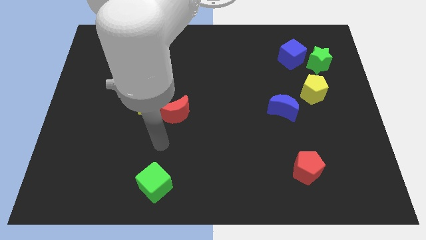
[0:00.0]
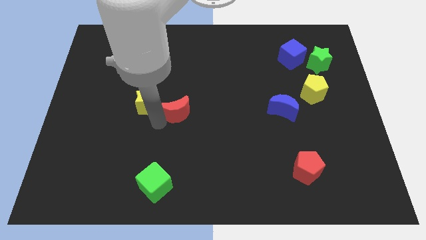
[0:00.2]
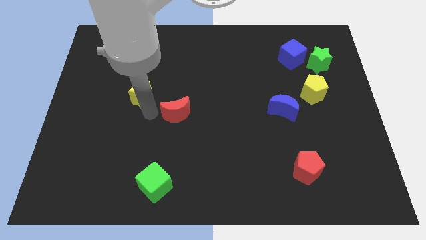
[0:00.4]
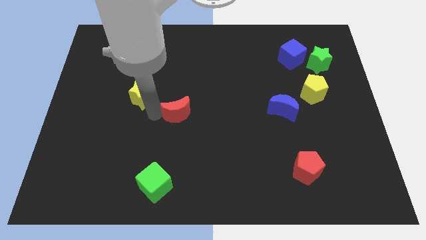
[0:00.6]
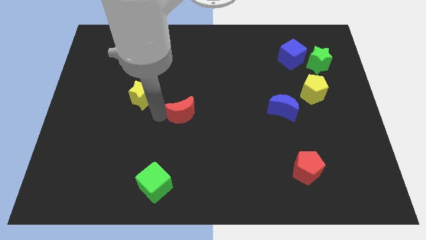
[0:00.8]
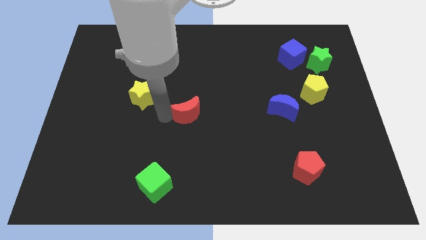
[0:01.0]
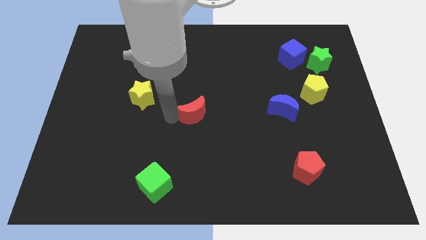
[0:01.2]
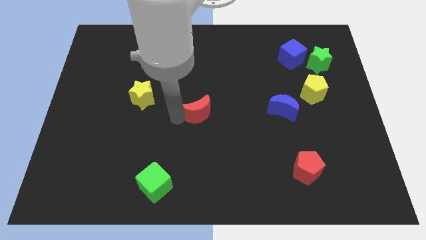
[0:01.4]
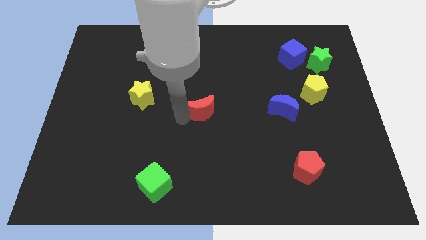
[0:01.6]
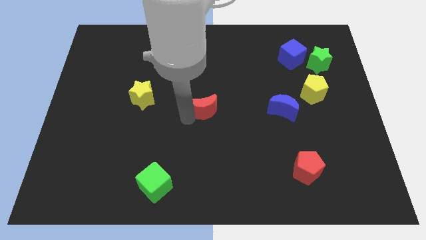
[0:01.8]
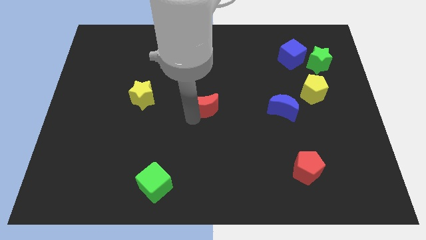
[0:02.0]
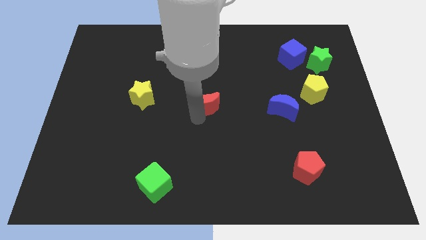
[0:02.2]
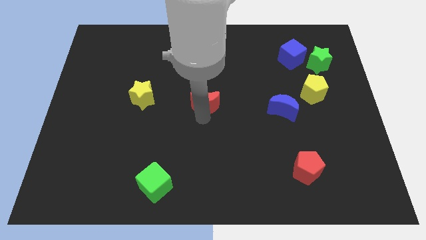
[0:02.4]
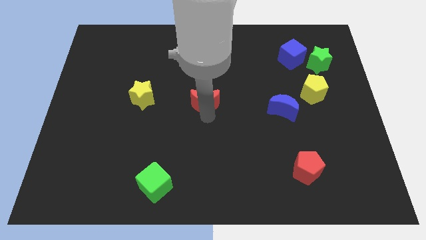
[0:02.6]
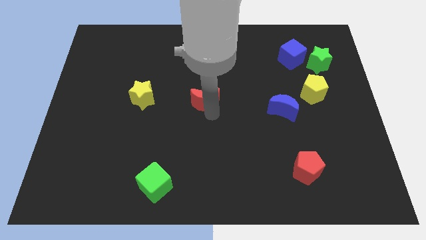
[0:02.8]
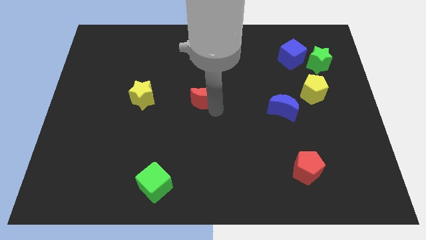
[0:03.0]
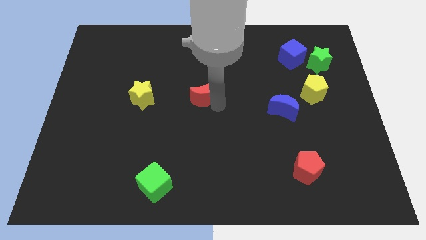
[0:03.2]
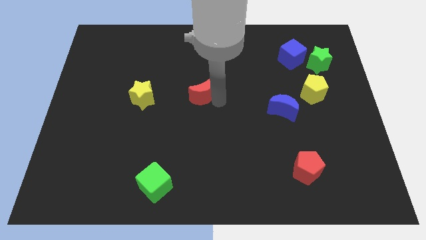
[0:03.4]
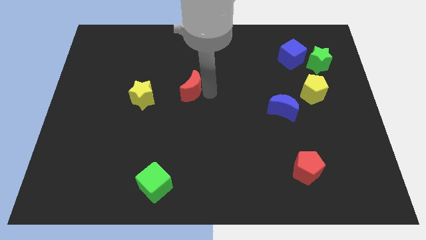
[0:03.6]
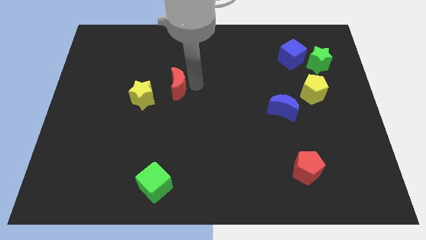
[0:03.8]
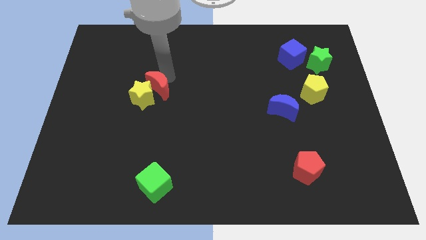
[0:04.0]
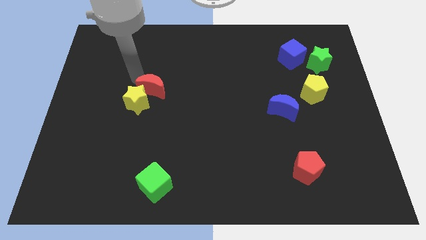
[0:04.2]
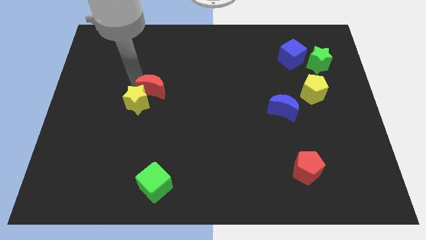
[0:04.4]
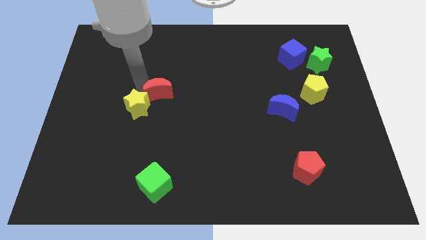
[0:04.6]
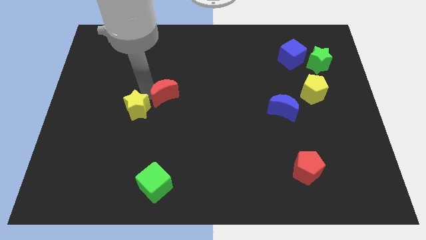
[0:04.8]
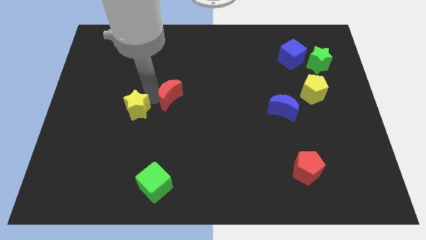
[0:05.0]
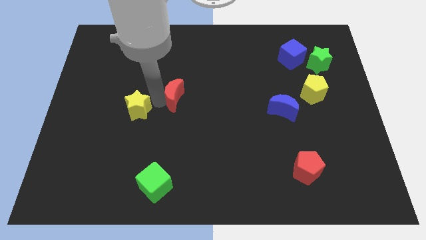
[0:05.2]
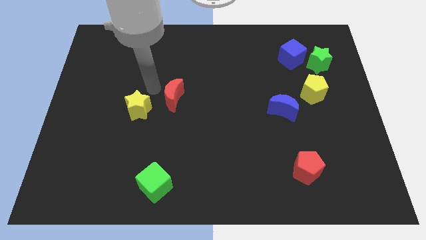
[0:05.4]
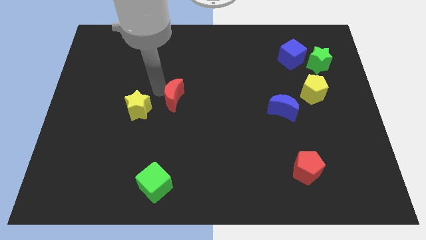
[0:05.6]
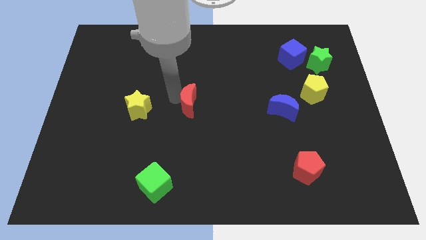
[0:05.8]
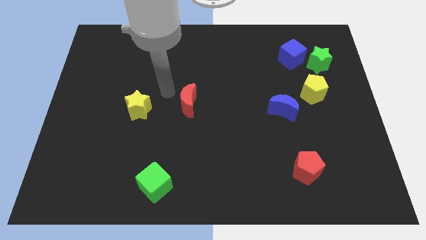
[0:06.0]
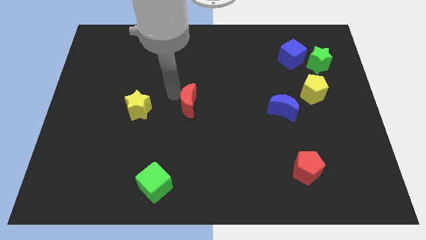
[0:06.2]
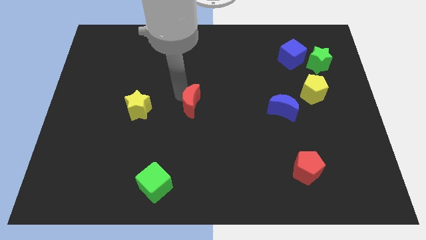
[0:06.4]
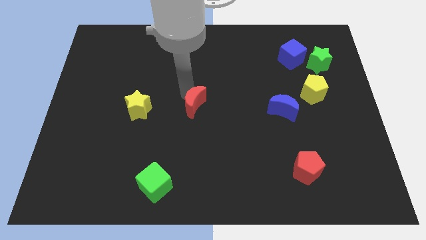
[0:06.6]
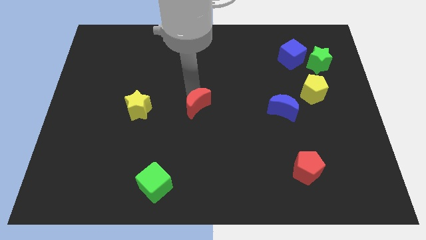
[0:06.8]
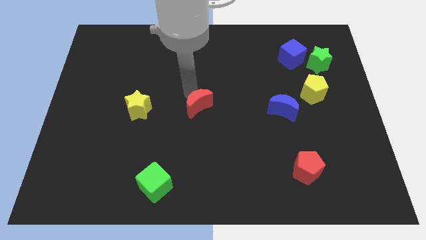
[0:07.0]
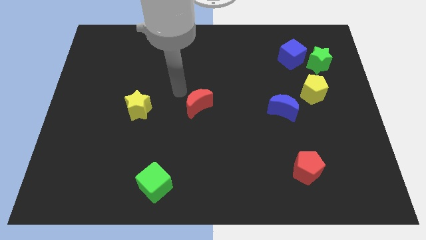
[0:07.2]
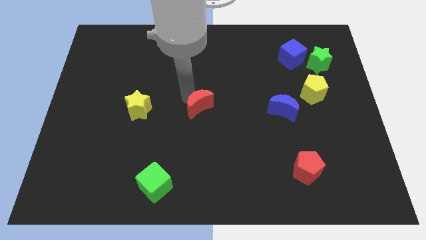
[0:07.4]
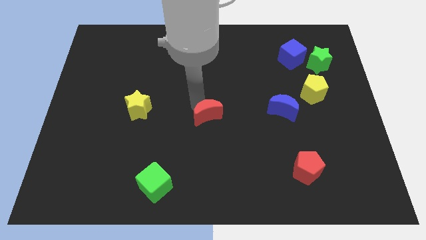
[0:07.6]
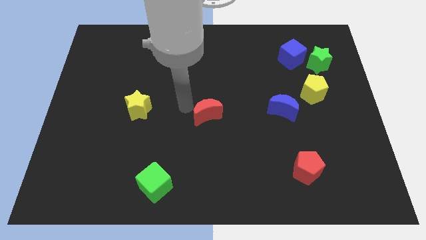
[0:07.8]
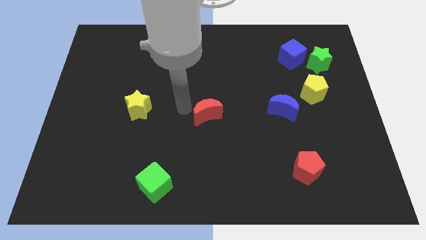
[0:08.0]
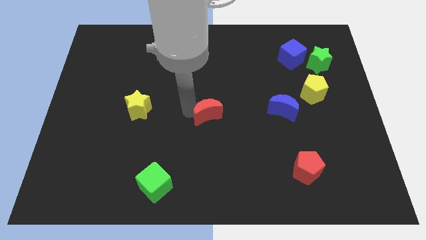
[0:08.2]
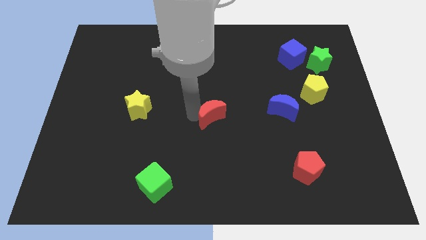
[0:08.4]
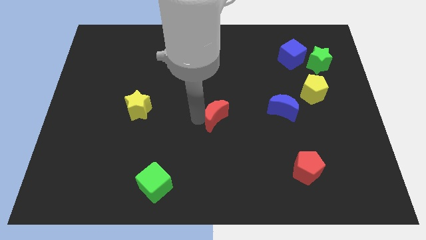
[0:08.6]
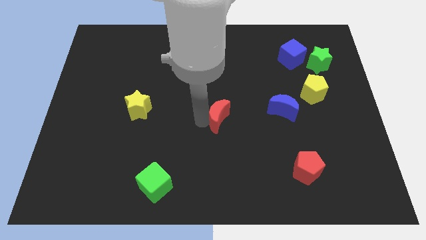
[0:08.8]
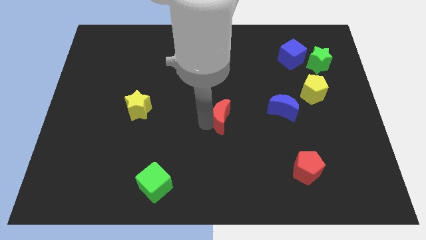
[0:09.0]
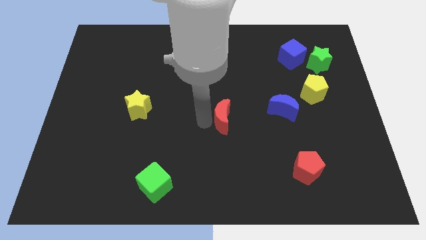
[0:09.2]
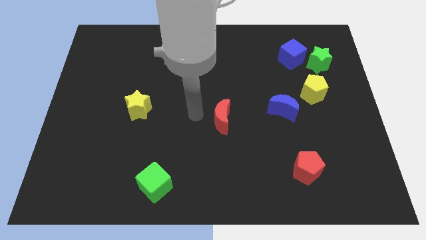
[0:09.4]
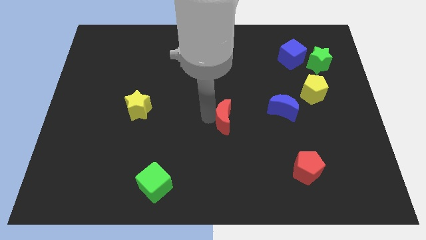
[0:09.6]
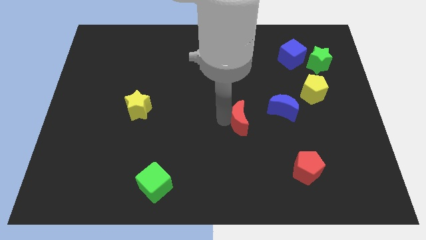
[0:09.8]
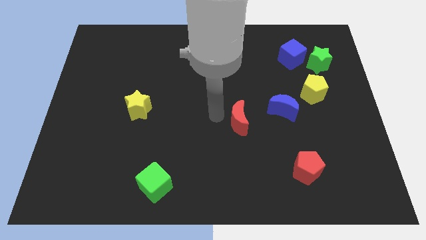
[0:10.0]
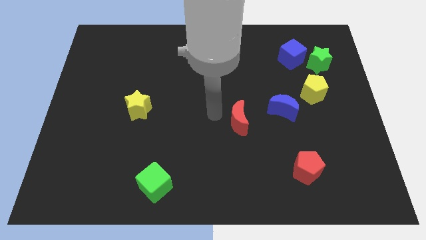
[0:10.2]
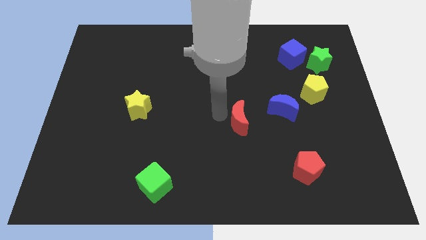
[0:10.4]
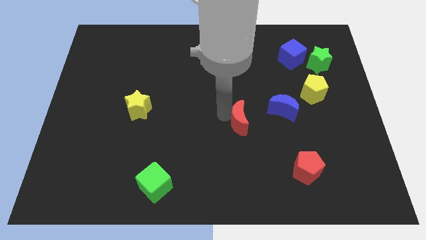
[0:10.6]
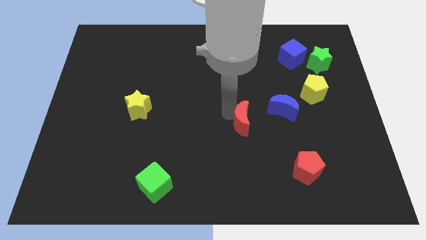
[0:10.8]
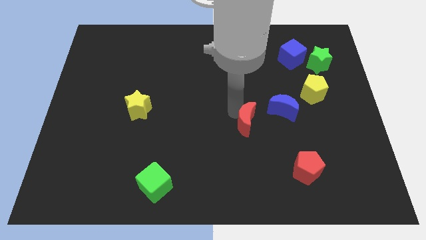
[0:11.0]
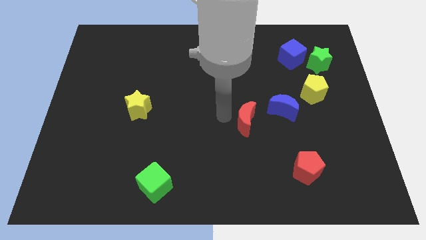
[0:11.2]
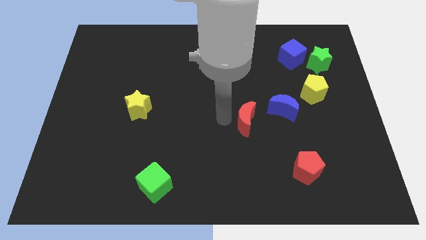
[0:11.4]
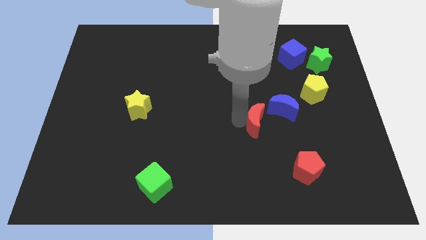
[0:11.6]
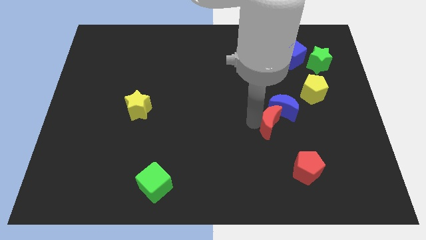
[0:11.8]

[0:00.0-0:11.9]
push the red moon right

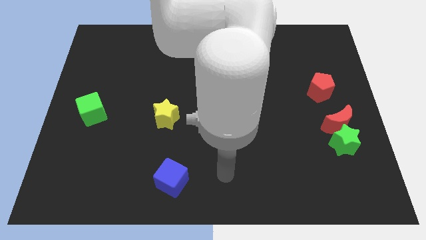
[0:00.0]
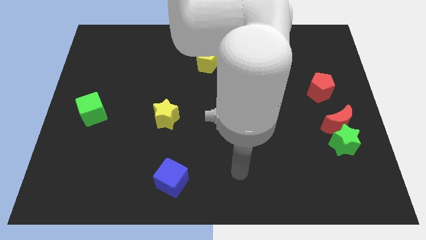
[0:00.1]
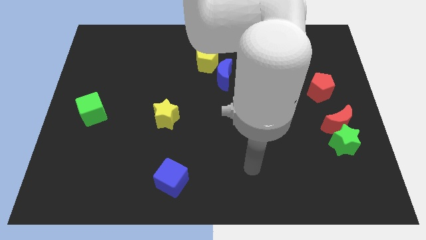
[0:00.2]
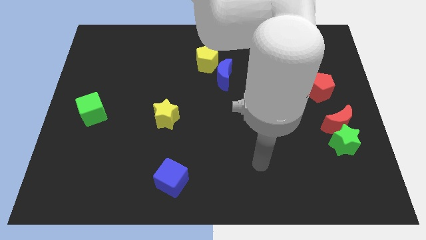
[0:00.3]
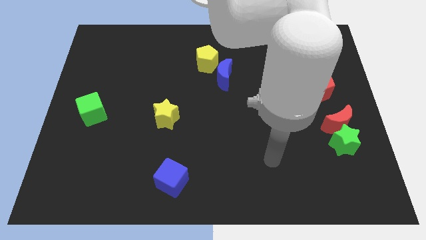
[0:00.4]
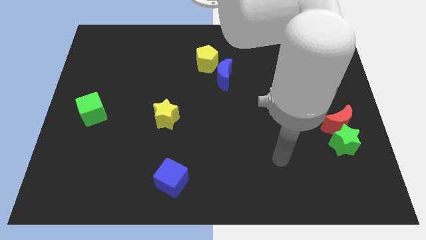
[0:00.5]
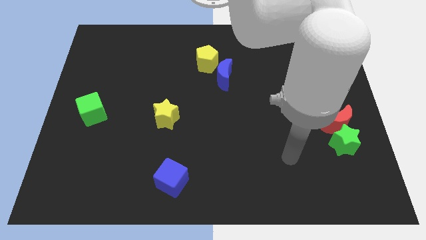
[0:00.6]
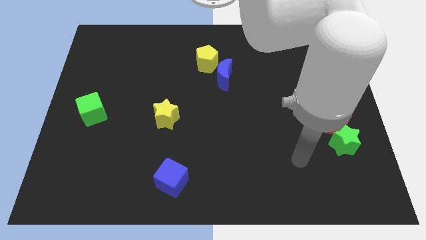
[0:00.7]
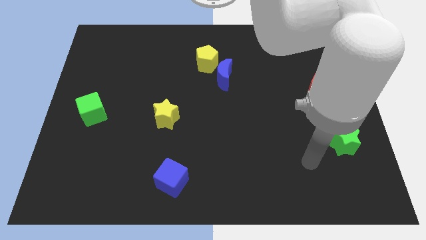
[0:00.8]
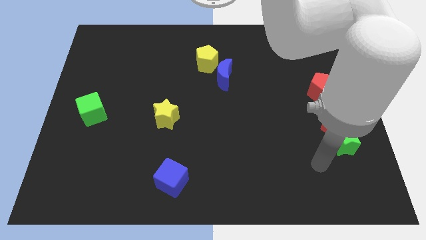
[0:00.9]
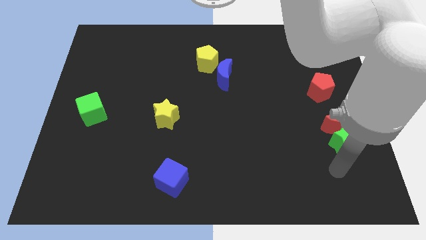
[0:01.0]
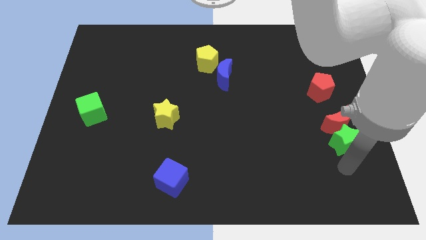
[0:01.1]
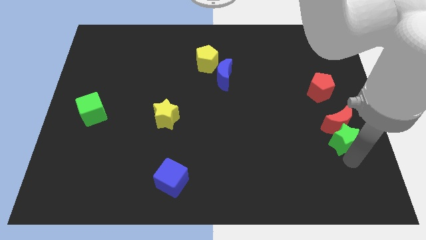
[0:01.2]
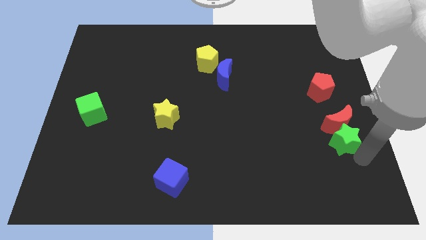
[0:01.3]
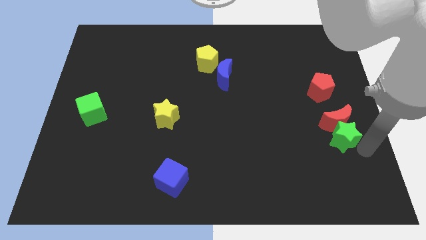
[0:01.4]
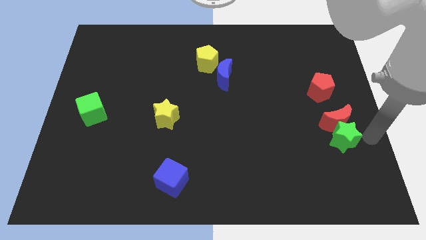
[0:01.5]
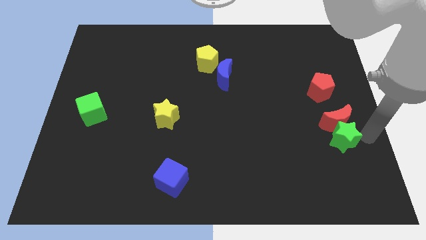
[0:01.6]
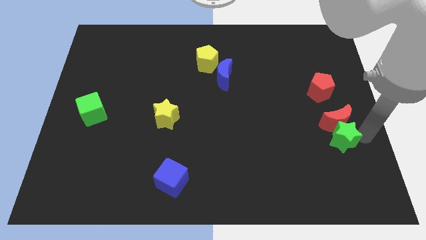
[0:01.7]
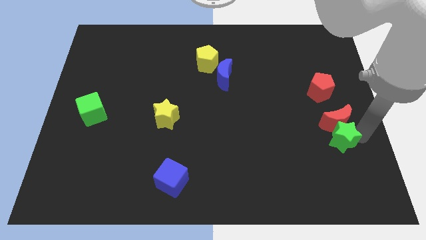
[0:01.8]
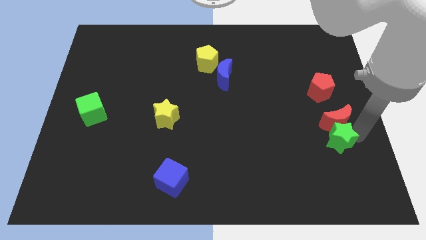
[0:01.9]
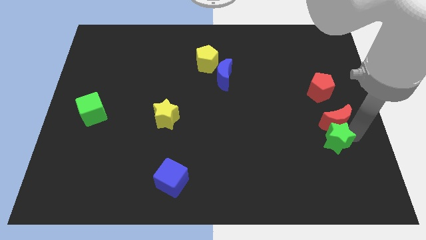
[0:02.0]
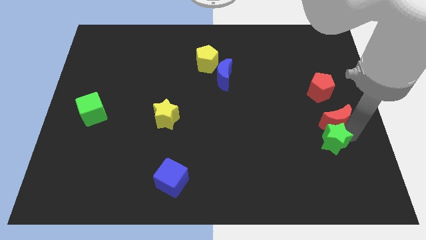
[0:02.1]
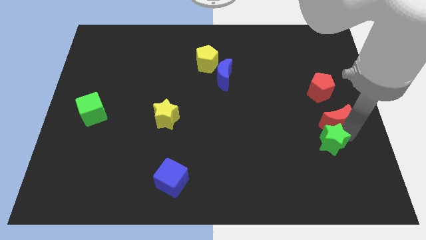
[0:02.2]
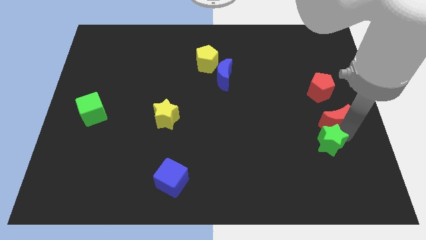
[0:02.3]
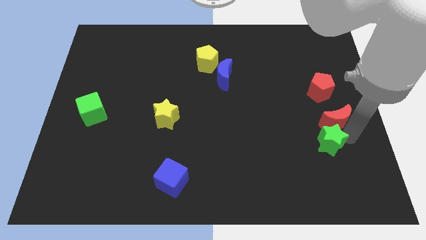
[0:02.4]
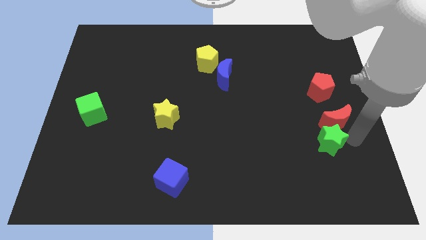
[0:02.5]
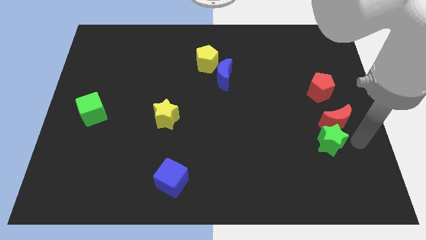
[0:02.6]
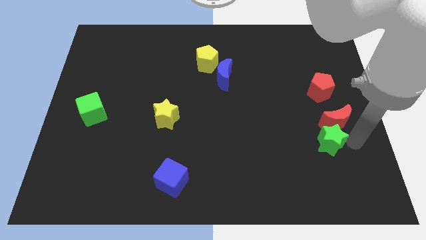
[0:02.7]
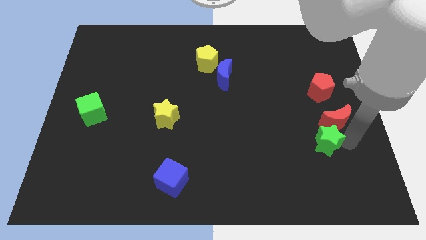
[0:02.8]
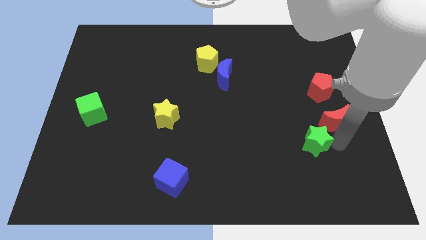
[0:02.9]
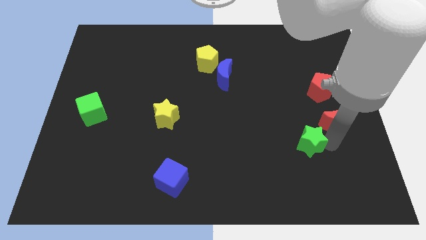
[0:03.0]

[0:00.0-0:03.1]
slightly slide the green star to the left
